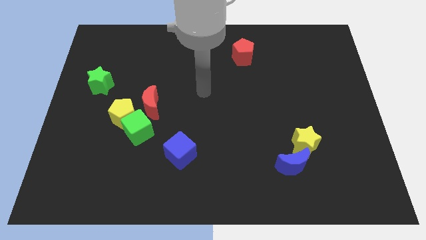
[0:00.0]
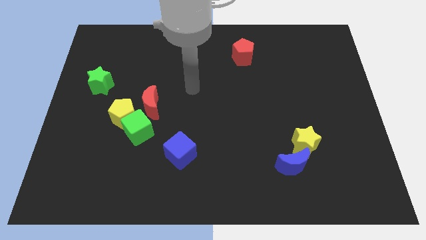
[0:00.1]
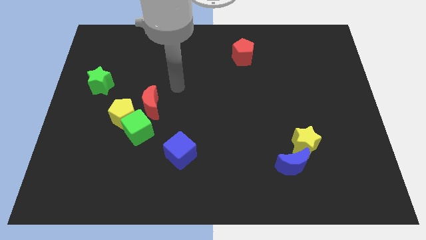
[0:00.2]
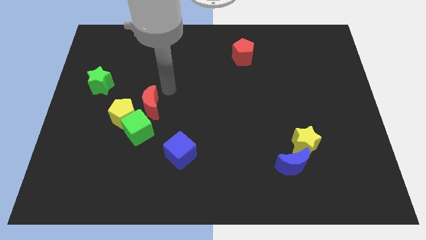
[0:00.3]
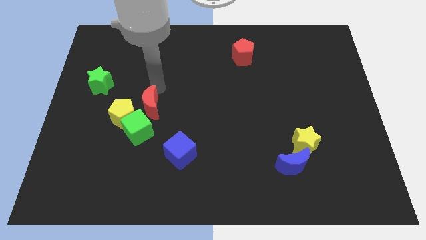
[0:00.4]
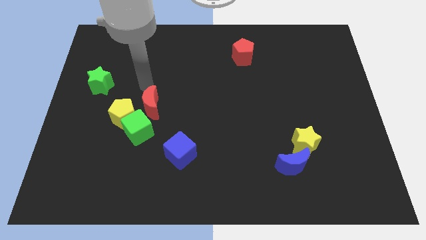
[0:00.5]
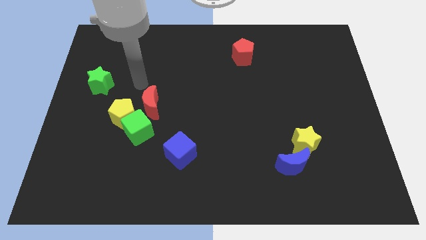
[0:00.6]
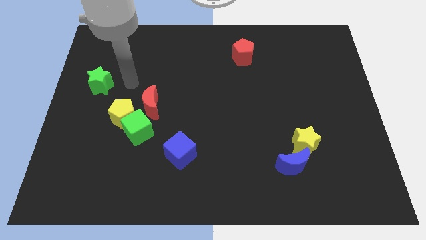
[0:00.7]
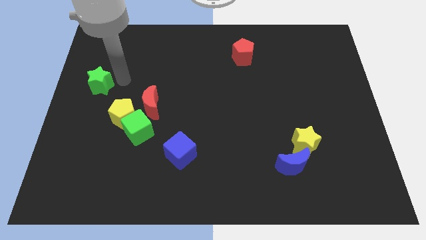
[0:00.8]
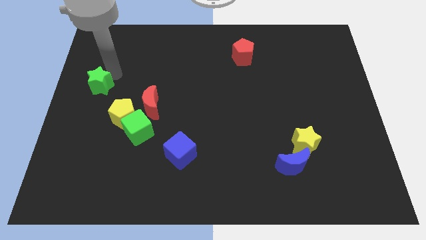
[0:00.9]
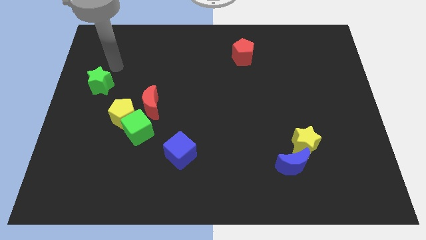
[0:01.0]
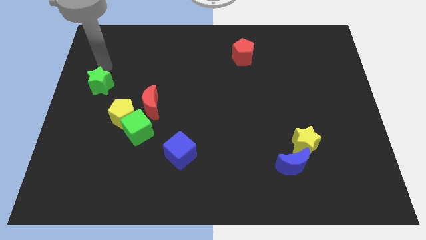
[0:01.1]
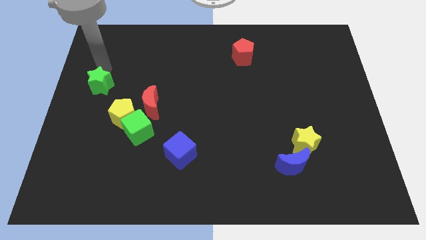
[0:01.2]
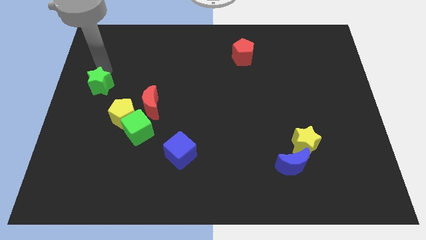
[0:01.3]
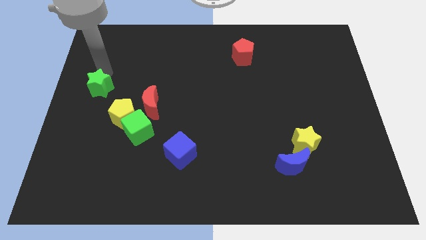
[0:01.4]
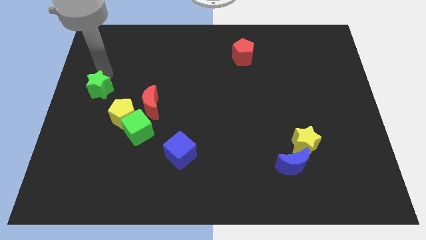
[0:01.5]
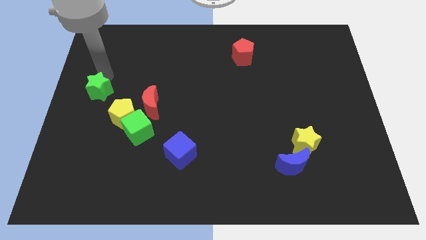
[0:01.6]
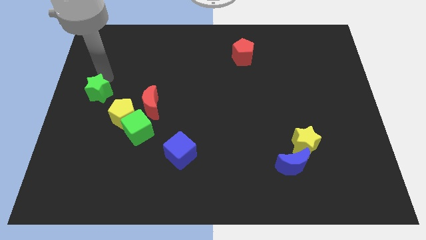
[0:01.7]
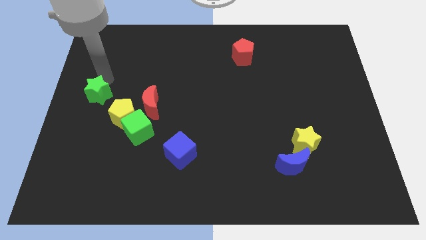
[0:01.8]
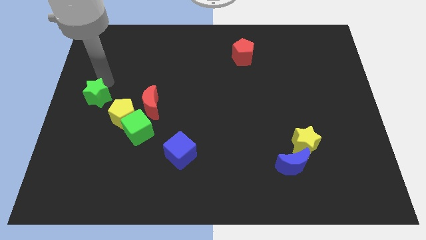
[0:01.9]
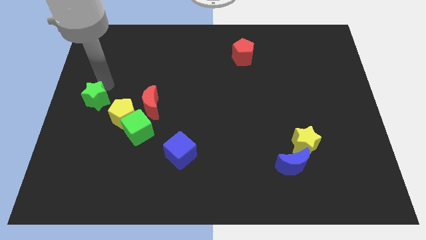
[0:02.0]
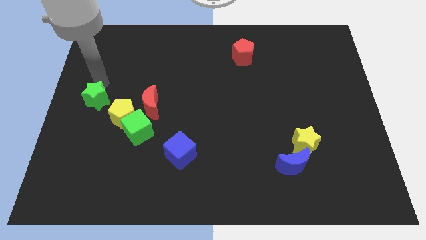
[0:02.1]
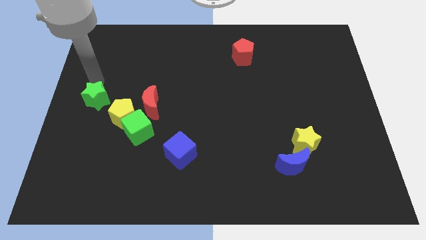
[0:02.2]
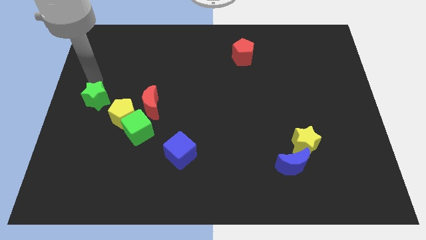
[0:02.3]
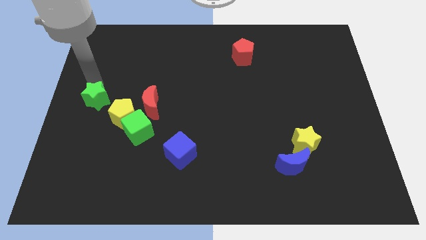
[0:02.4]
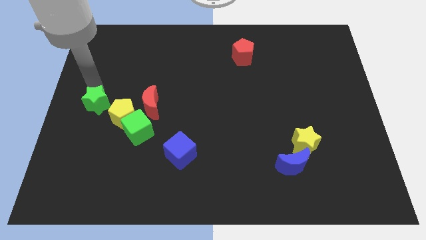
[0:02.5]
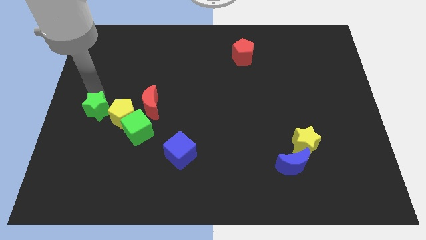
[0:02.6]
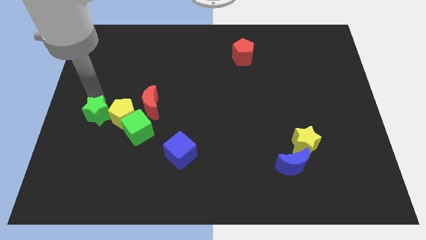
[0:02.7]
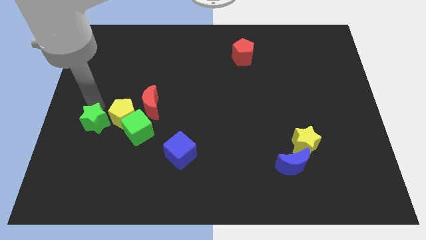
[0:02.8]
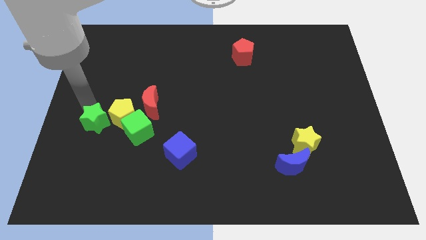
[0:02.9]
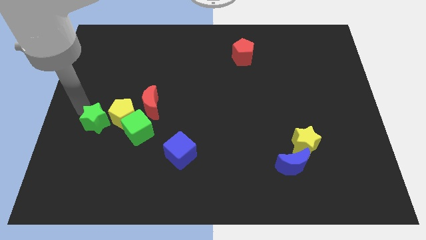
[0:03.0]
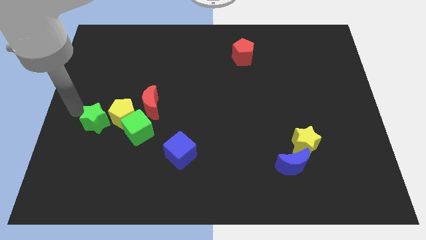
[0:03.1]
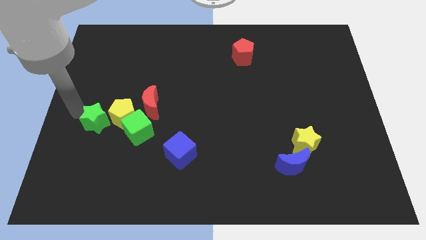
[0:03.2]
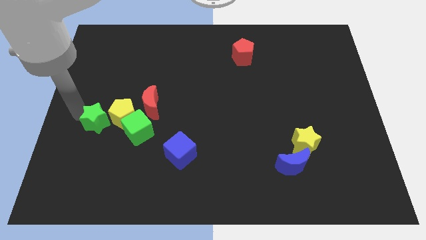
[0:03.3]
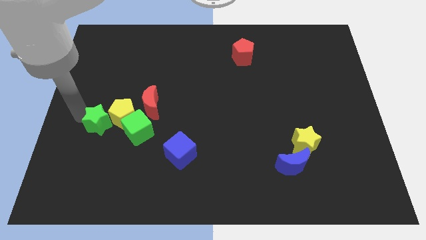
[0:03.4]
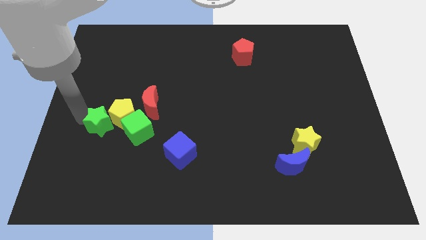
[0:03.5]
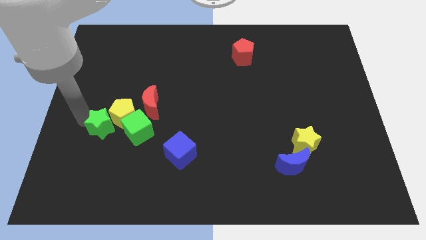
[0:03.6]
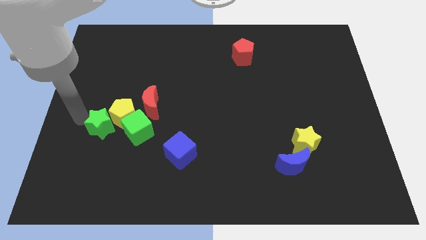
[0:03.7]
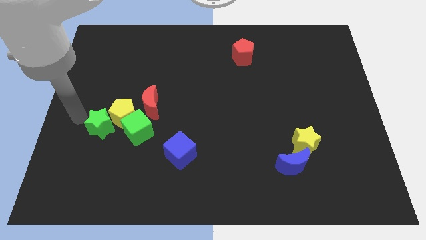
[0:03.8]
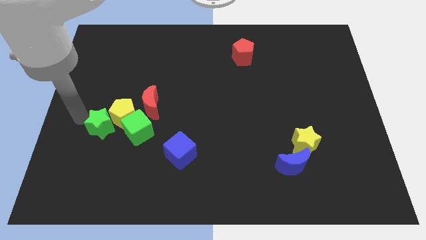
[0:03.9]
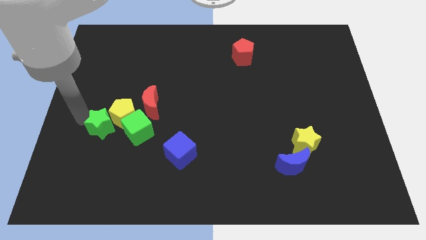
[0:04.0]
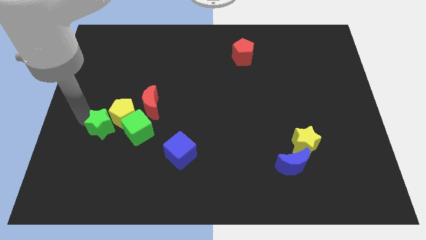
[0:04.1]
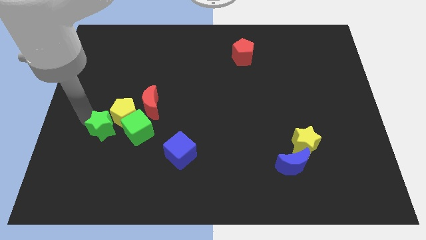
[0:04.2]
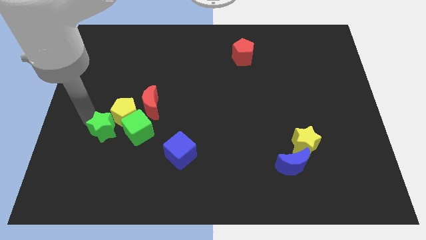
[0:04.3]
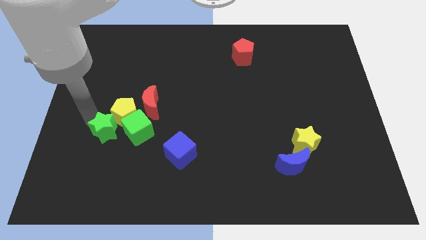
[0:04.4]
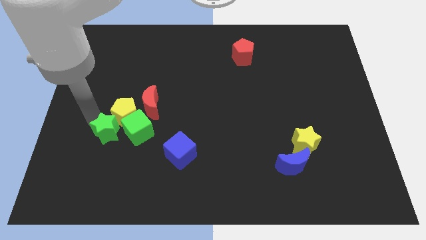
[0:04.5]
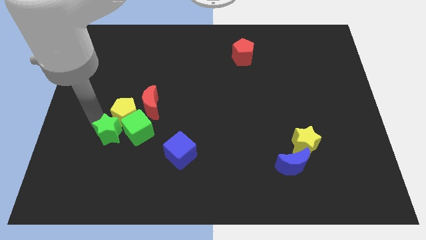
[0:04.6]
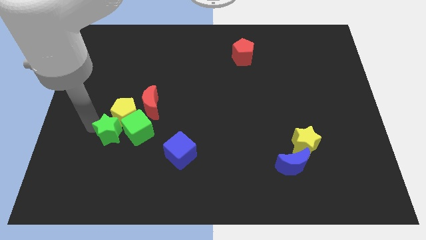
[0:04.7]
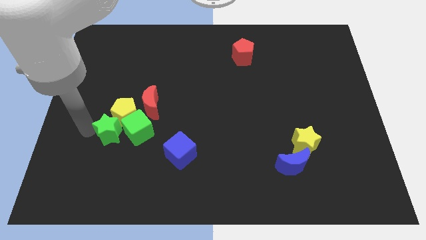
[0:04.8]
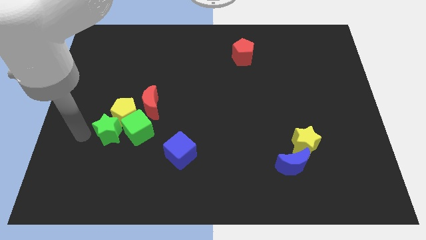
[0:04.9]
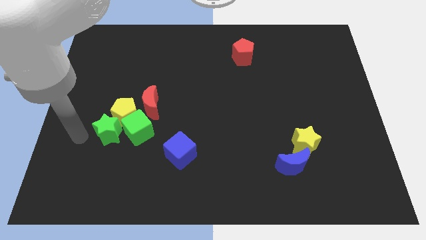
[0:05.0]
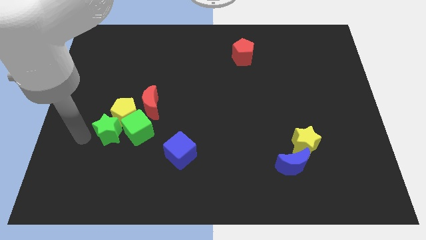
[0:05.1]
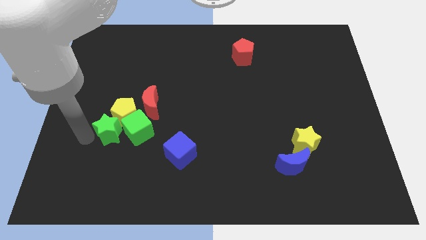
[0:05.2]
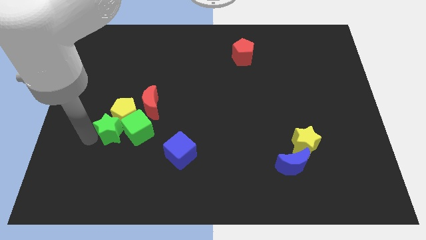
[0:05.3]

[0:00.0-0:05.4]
put the green star next to the green cube

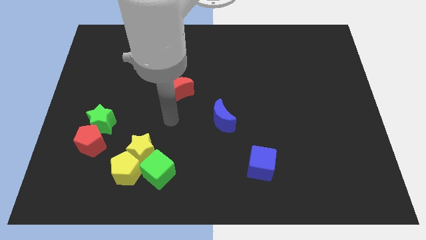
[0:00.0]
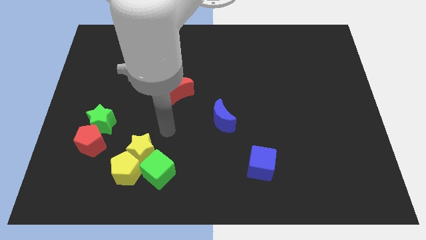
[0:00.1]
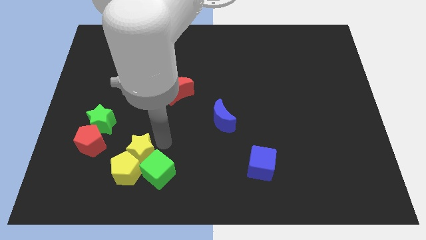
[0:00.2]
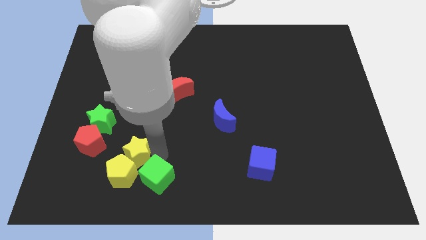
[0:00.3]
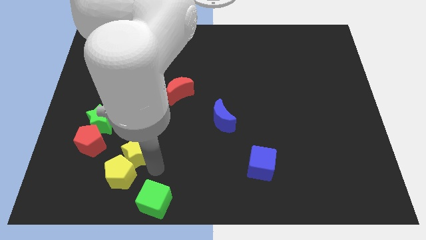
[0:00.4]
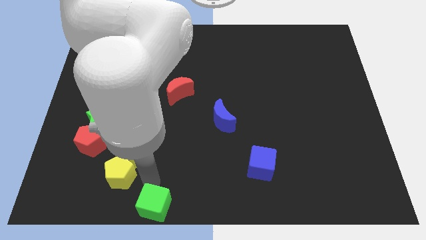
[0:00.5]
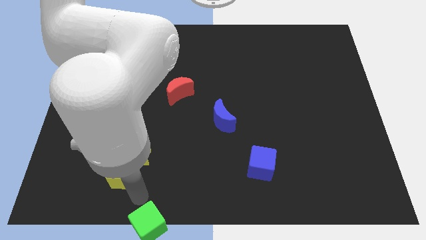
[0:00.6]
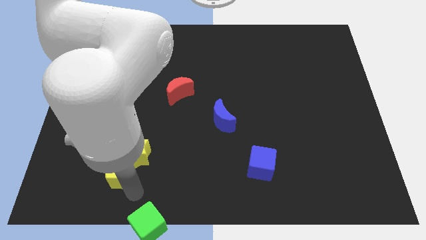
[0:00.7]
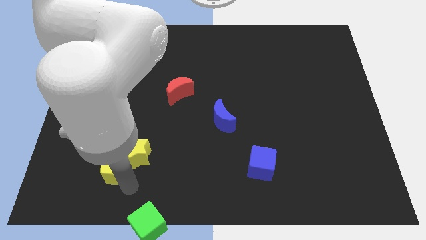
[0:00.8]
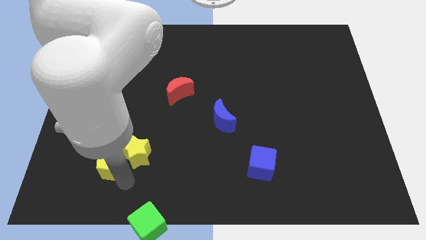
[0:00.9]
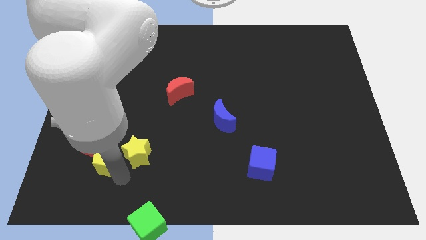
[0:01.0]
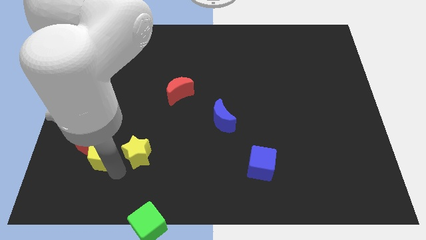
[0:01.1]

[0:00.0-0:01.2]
move the yellow pentagon close to the red pentagon
